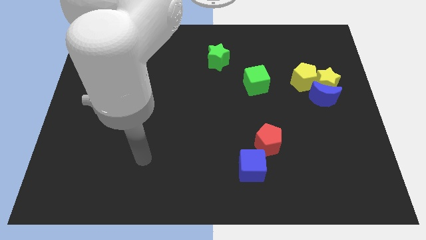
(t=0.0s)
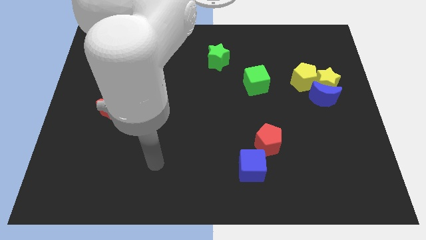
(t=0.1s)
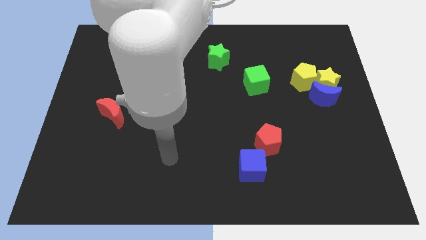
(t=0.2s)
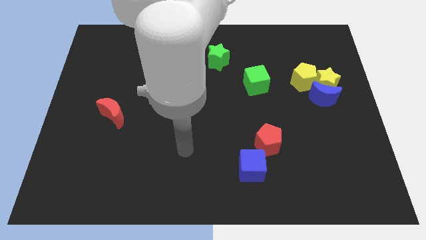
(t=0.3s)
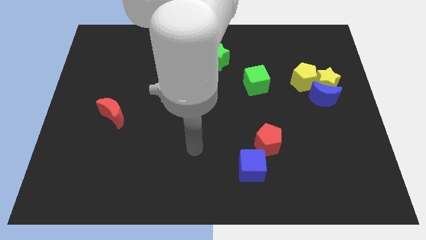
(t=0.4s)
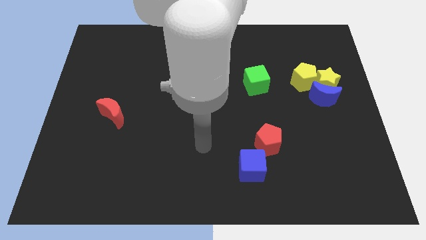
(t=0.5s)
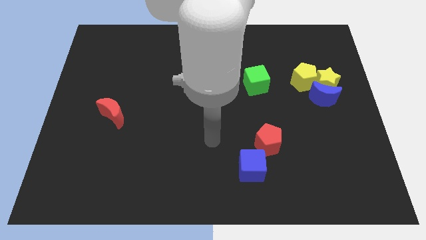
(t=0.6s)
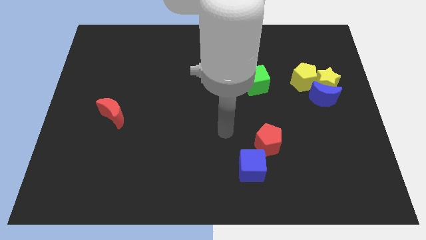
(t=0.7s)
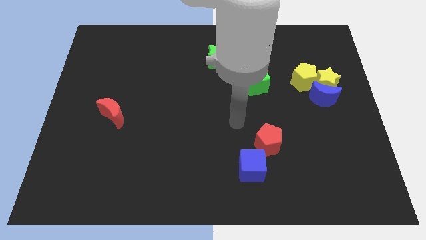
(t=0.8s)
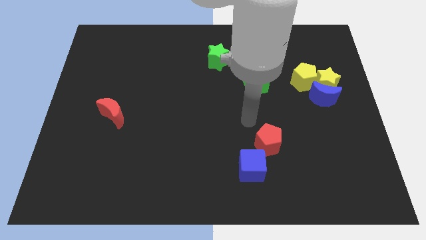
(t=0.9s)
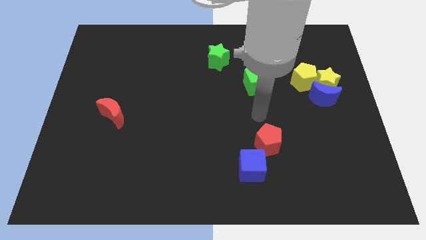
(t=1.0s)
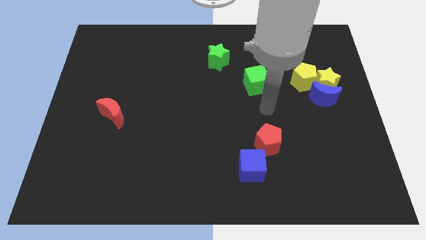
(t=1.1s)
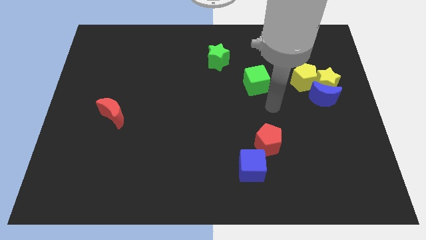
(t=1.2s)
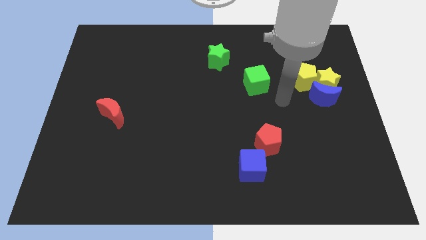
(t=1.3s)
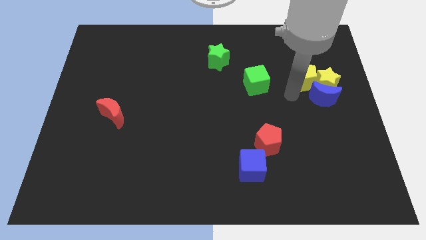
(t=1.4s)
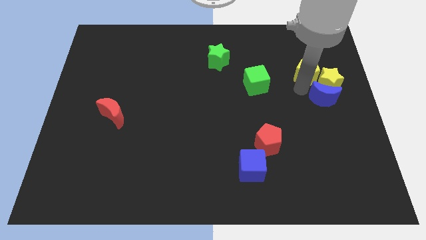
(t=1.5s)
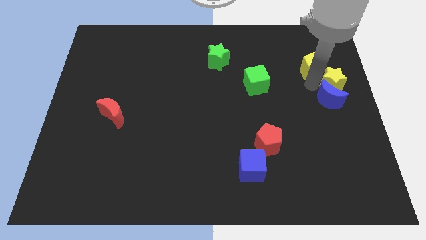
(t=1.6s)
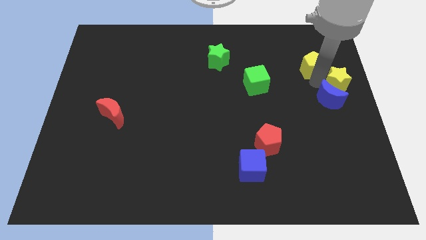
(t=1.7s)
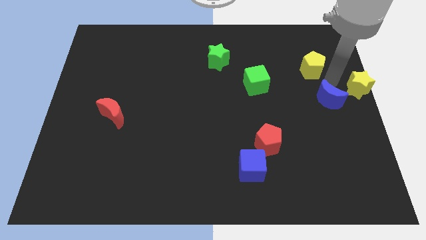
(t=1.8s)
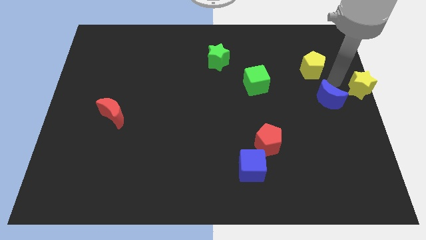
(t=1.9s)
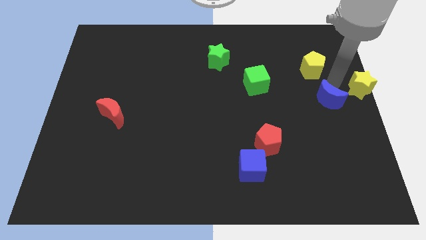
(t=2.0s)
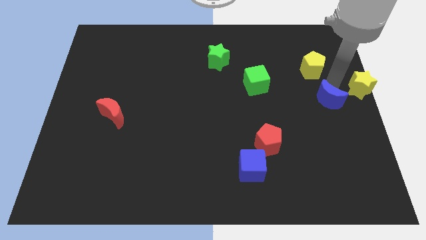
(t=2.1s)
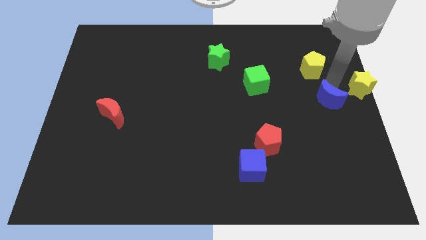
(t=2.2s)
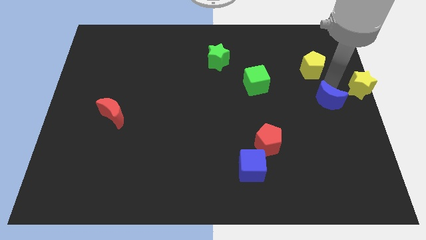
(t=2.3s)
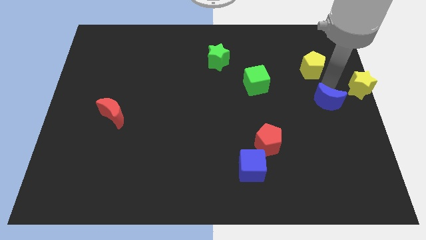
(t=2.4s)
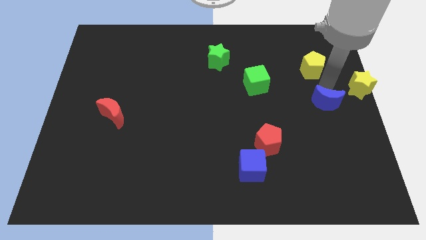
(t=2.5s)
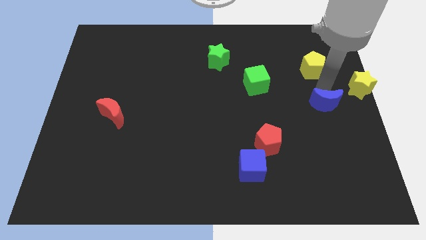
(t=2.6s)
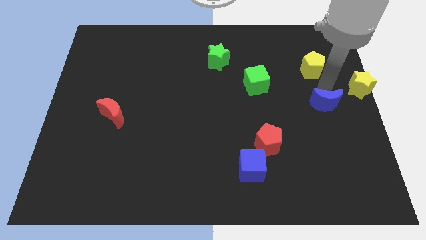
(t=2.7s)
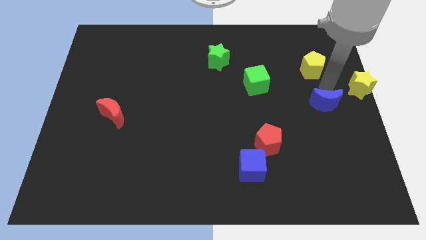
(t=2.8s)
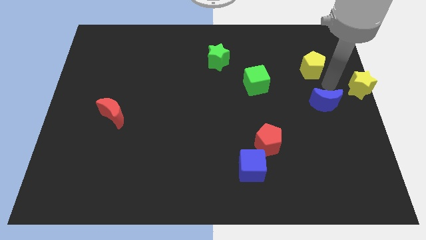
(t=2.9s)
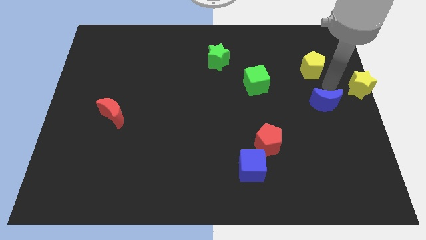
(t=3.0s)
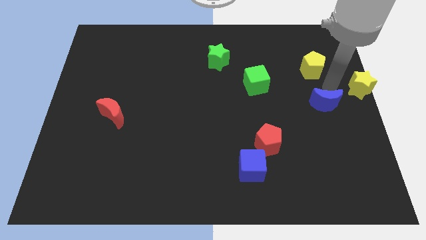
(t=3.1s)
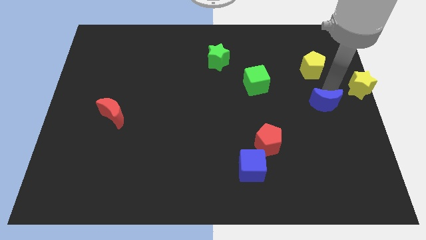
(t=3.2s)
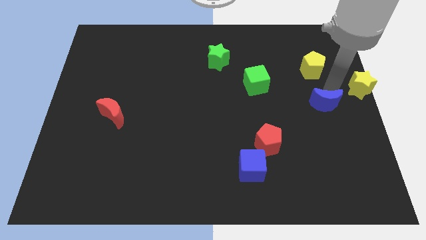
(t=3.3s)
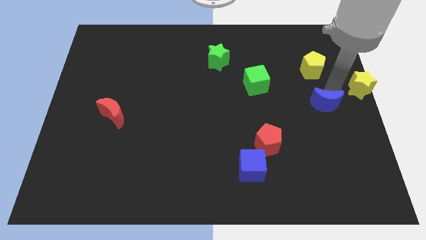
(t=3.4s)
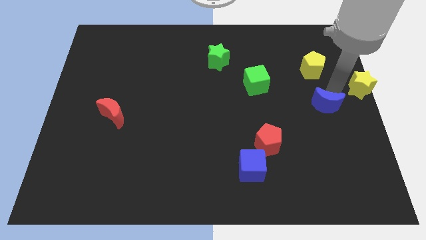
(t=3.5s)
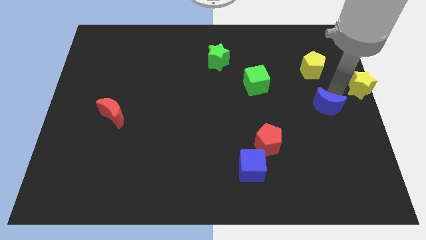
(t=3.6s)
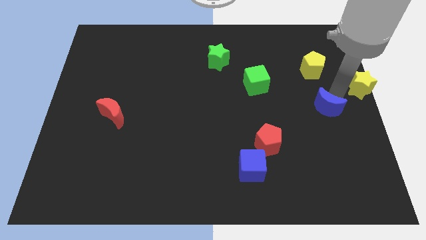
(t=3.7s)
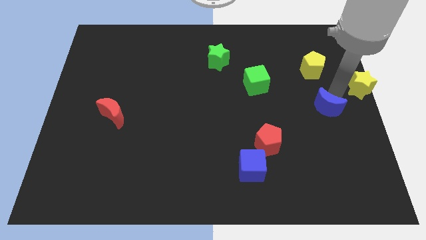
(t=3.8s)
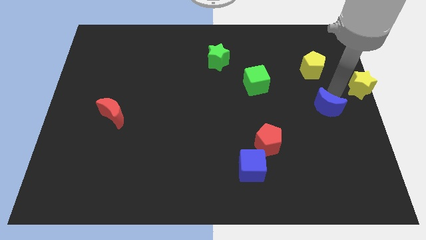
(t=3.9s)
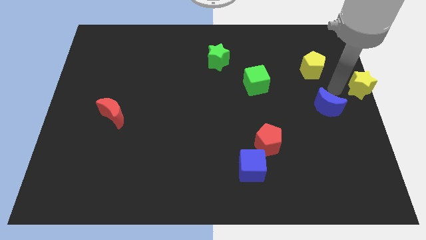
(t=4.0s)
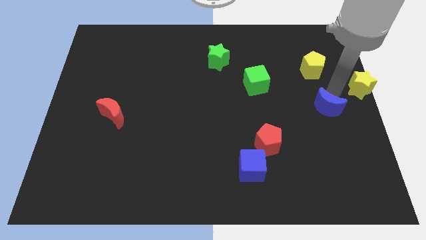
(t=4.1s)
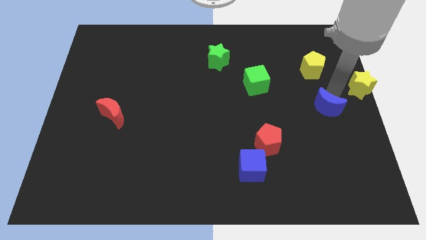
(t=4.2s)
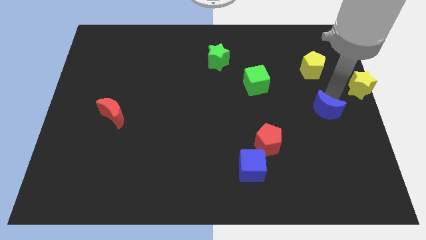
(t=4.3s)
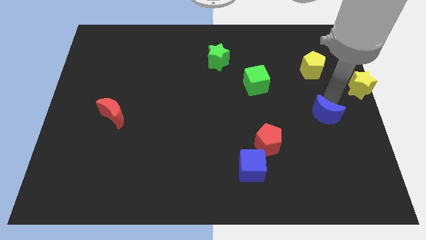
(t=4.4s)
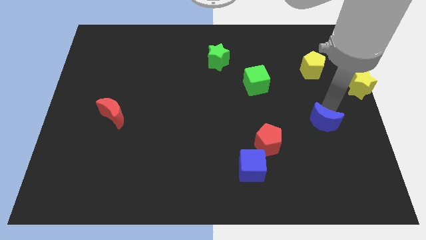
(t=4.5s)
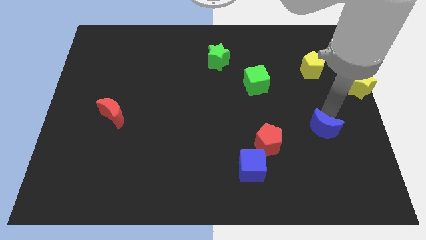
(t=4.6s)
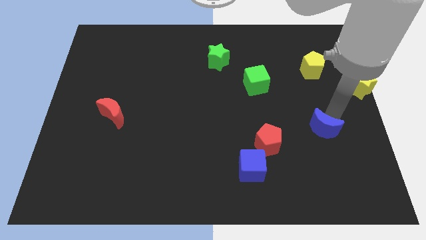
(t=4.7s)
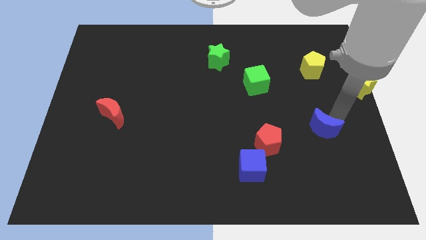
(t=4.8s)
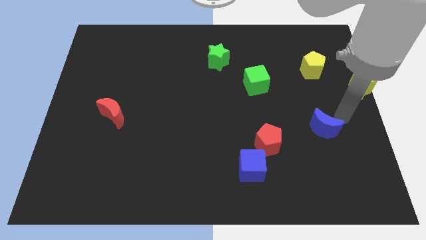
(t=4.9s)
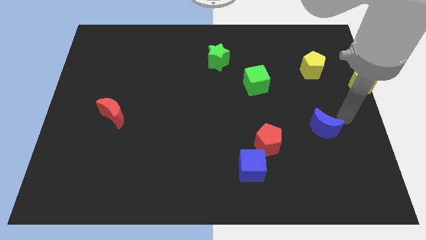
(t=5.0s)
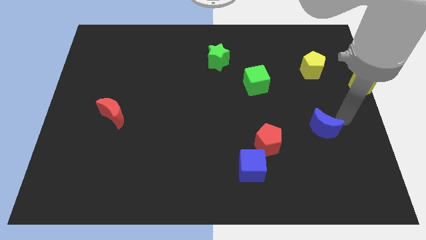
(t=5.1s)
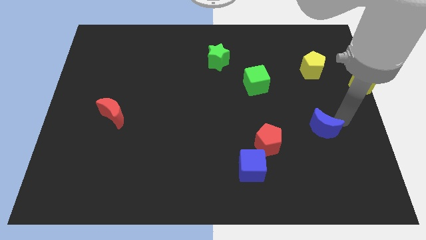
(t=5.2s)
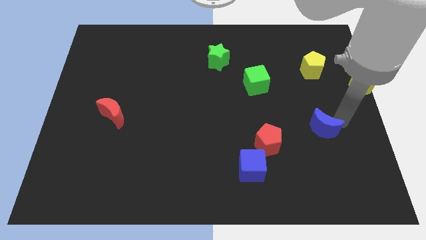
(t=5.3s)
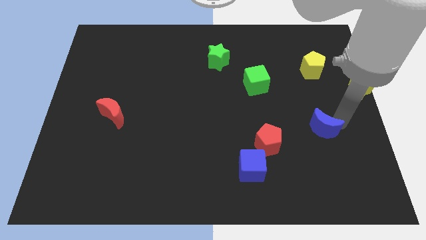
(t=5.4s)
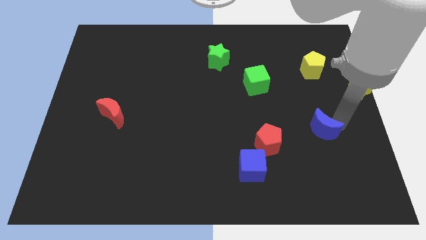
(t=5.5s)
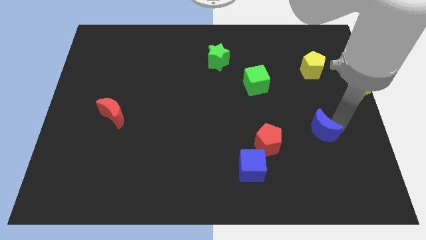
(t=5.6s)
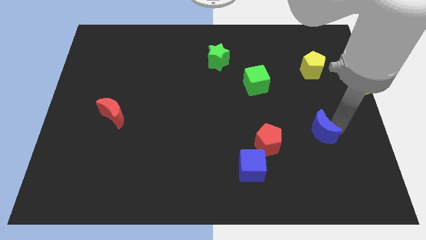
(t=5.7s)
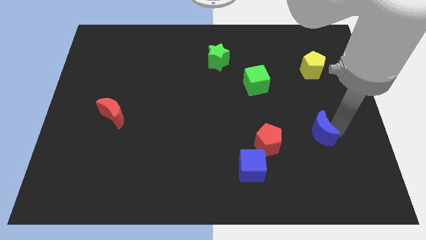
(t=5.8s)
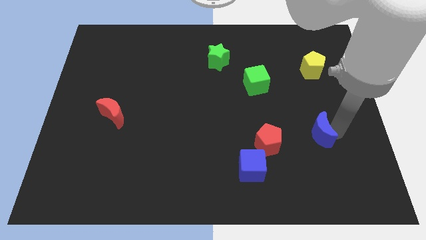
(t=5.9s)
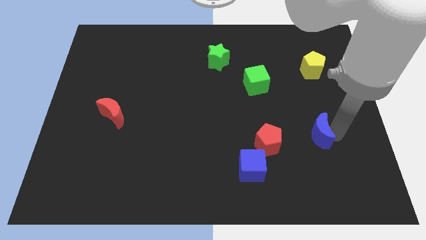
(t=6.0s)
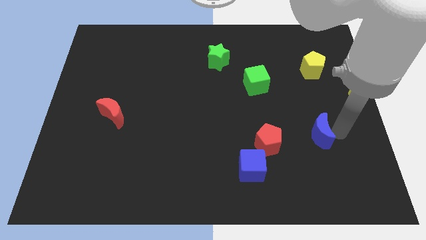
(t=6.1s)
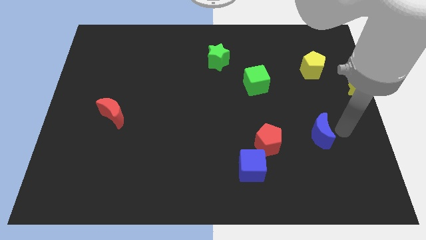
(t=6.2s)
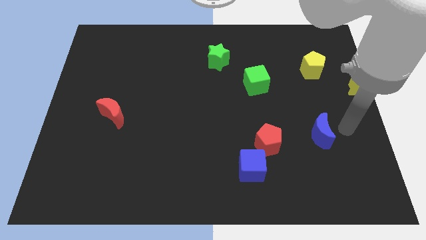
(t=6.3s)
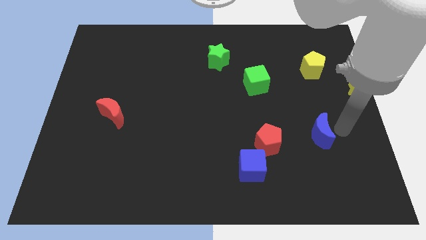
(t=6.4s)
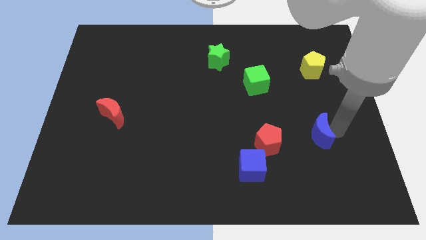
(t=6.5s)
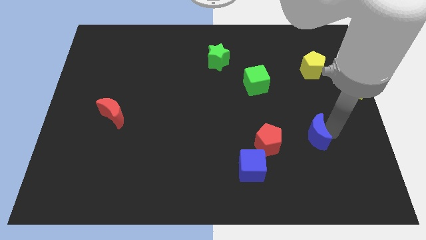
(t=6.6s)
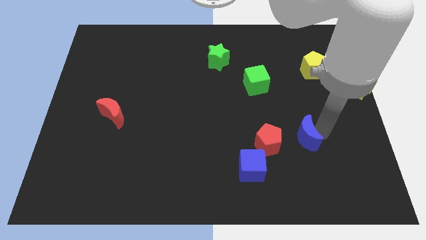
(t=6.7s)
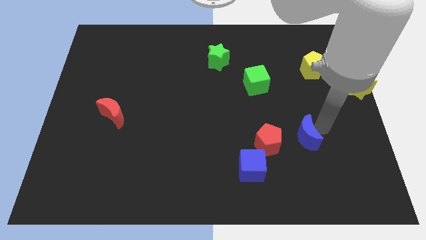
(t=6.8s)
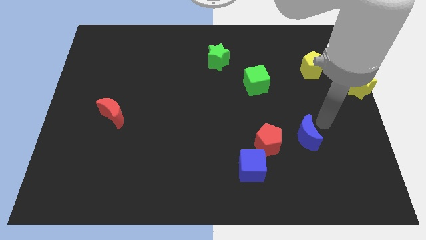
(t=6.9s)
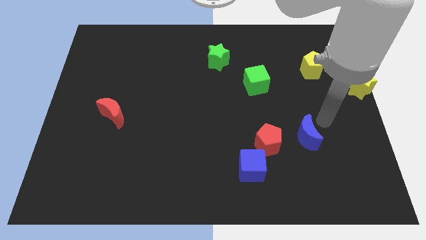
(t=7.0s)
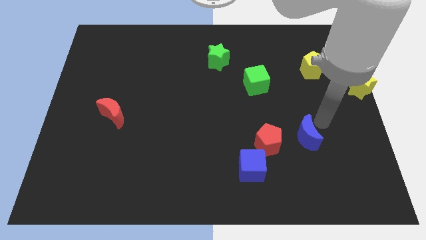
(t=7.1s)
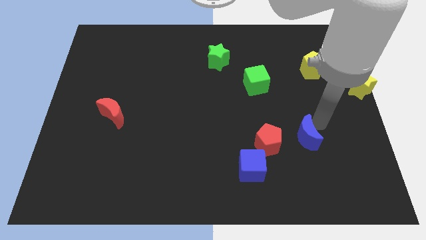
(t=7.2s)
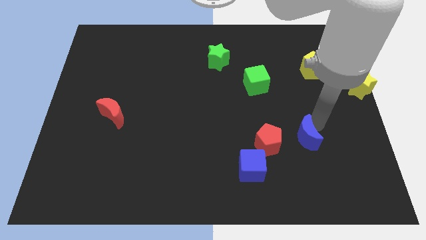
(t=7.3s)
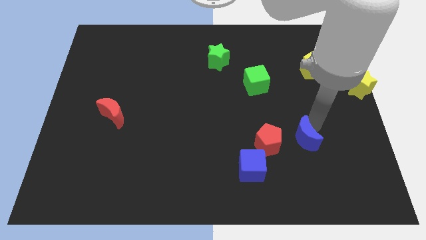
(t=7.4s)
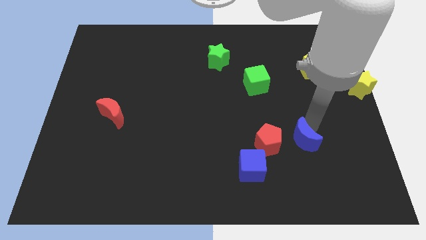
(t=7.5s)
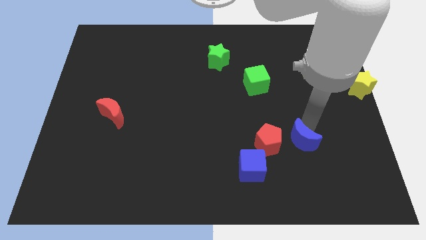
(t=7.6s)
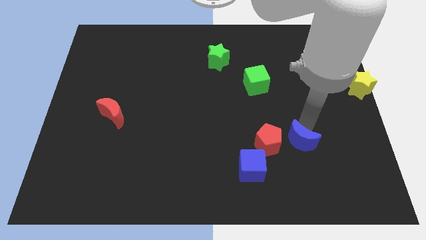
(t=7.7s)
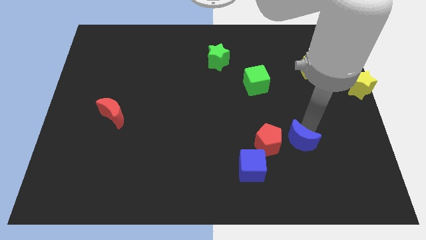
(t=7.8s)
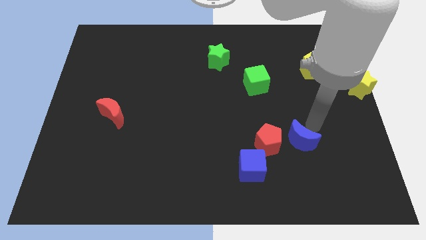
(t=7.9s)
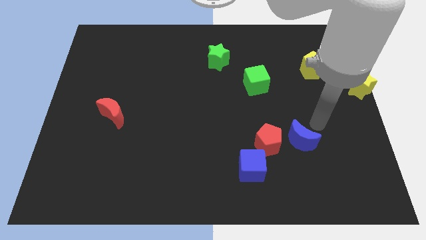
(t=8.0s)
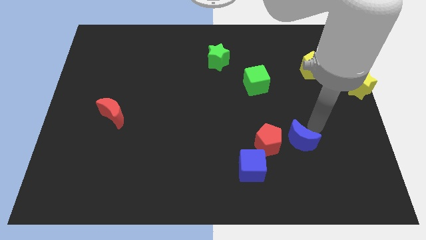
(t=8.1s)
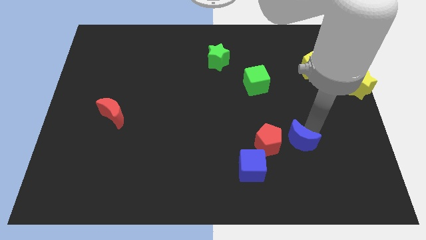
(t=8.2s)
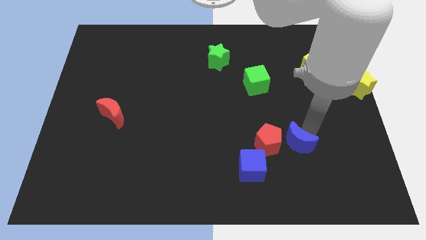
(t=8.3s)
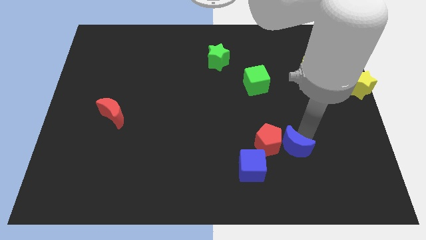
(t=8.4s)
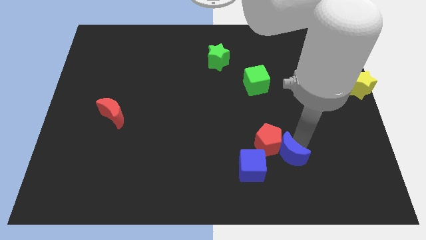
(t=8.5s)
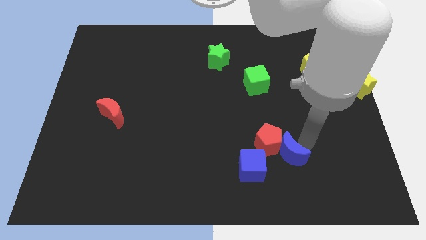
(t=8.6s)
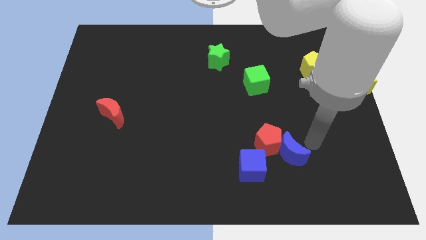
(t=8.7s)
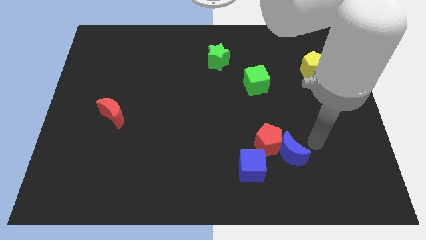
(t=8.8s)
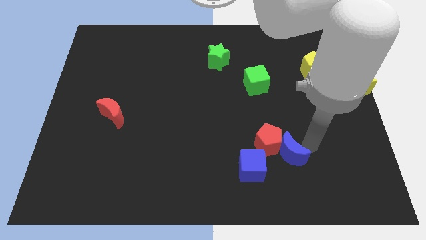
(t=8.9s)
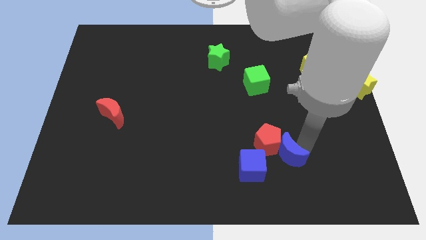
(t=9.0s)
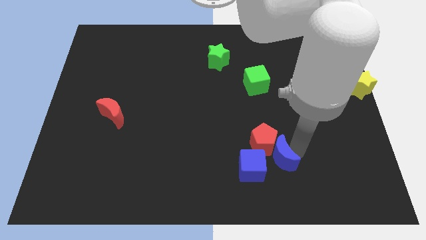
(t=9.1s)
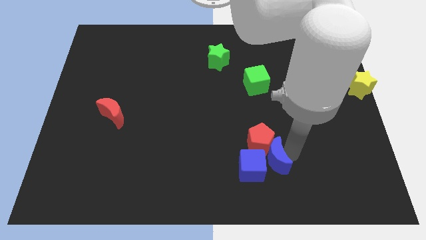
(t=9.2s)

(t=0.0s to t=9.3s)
put the blue moon next to the blue cube
